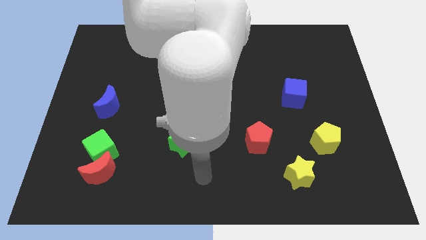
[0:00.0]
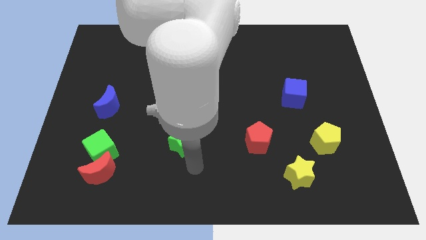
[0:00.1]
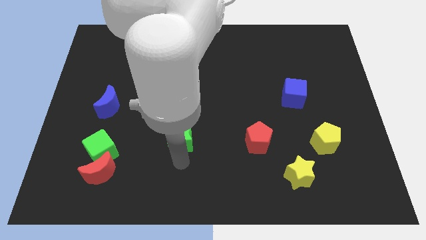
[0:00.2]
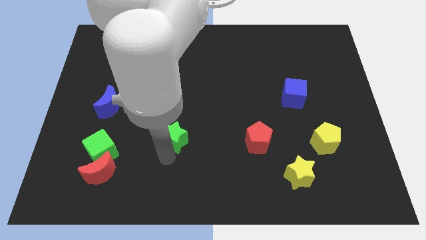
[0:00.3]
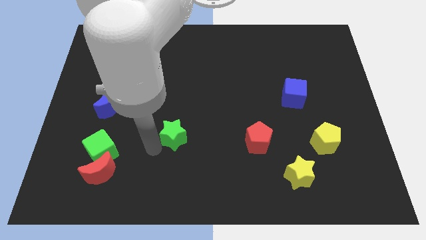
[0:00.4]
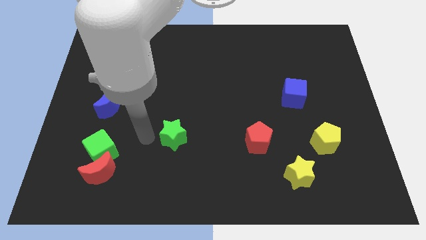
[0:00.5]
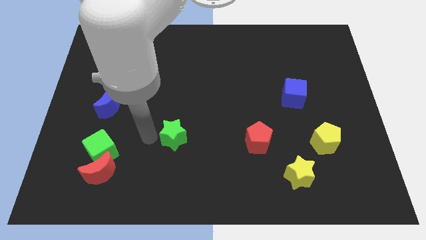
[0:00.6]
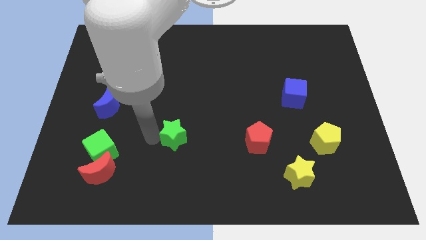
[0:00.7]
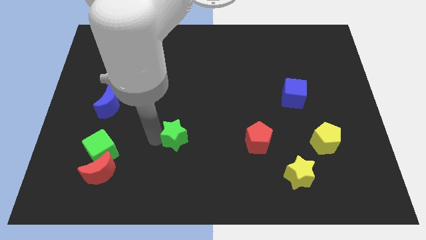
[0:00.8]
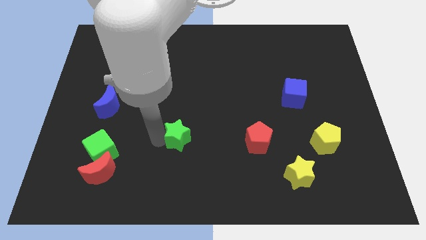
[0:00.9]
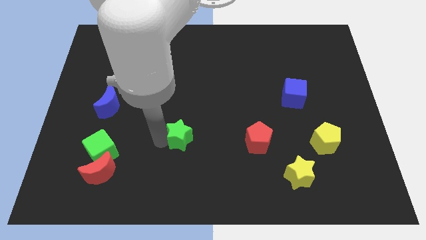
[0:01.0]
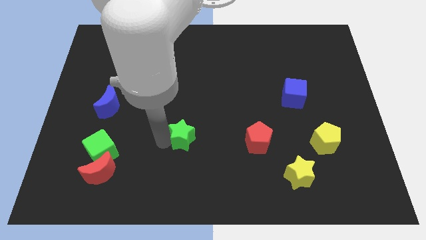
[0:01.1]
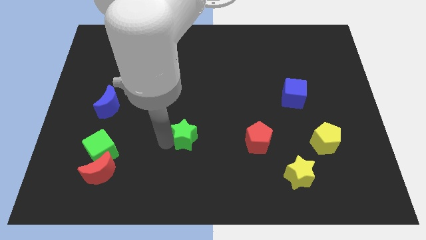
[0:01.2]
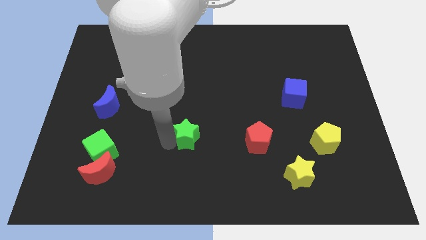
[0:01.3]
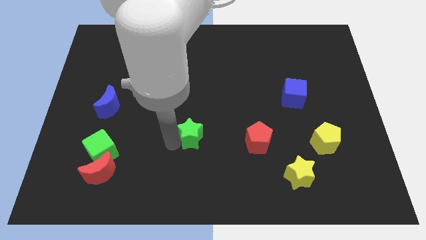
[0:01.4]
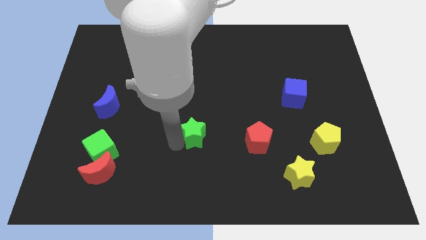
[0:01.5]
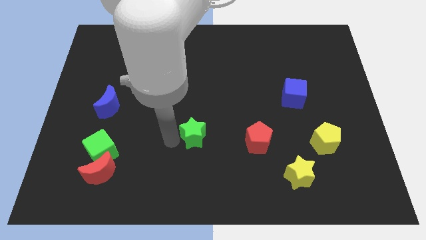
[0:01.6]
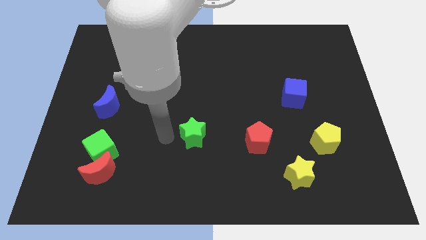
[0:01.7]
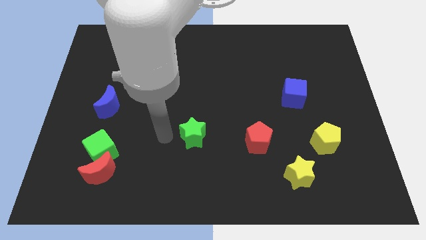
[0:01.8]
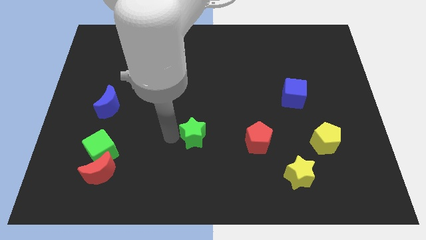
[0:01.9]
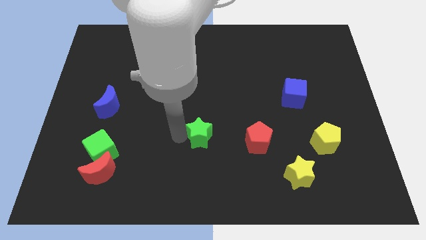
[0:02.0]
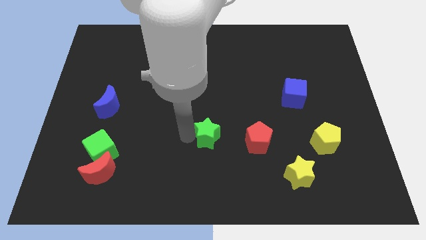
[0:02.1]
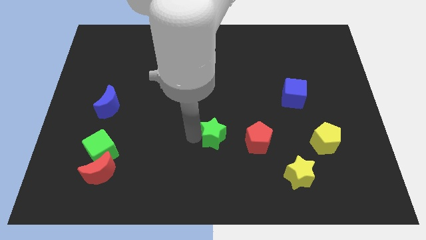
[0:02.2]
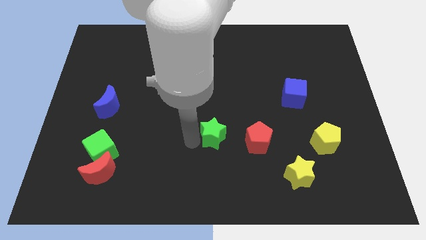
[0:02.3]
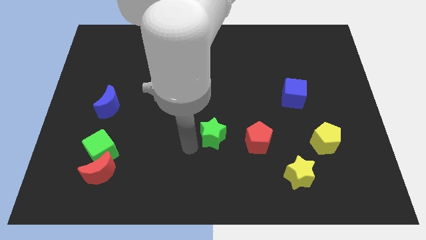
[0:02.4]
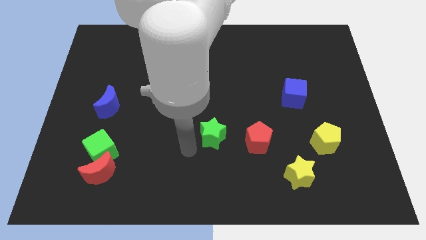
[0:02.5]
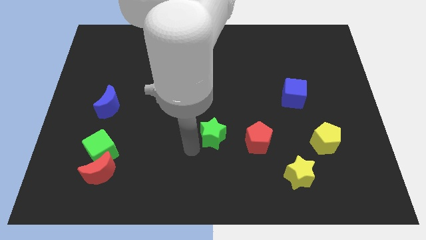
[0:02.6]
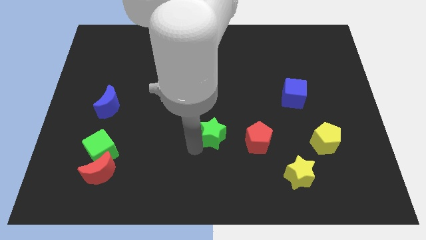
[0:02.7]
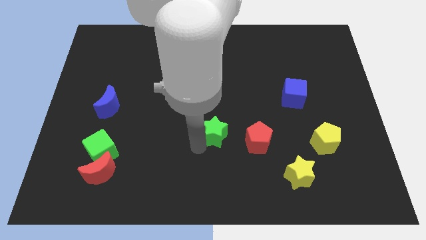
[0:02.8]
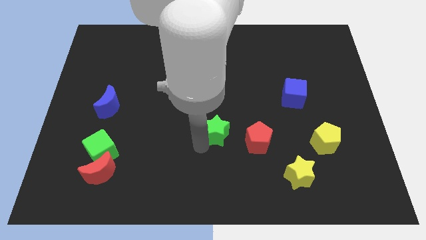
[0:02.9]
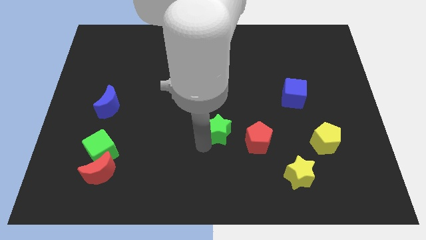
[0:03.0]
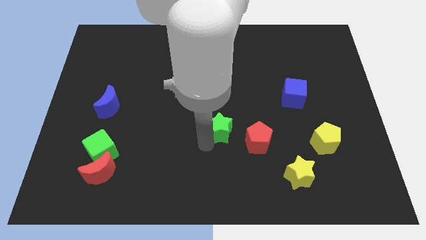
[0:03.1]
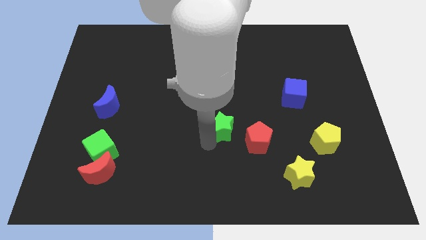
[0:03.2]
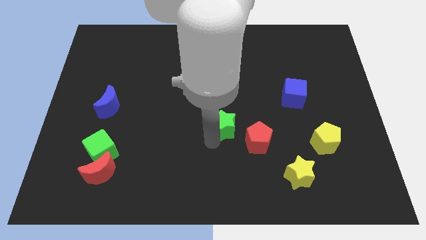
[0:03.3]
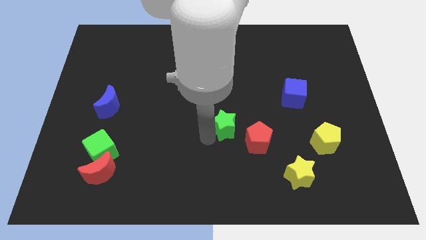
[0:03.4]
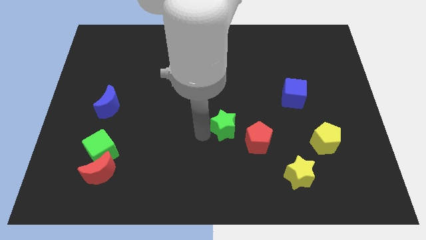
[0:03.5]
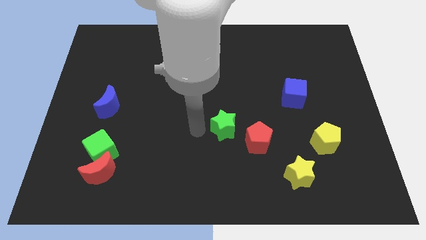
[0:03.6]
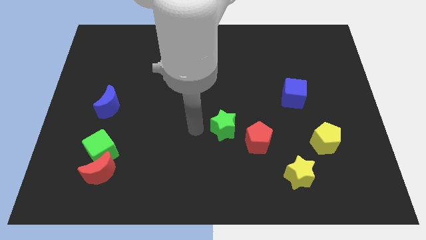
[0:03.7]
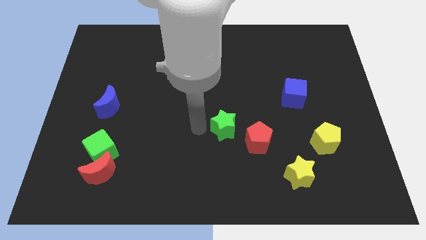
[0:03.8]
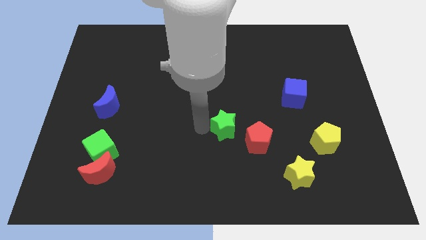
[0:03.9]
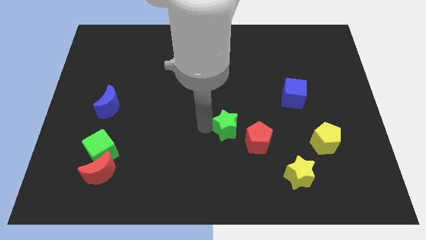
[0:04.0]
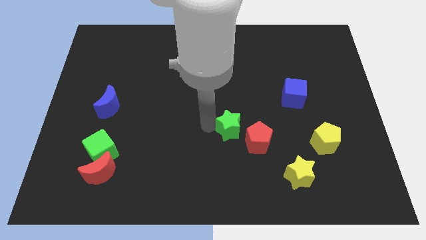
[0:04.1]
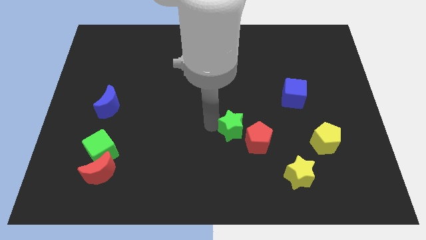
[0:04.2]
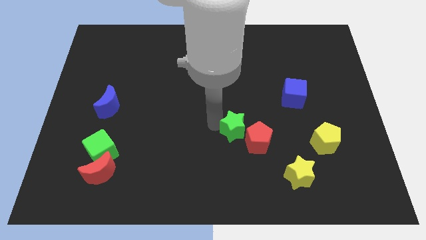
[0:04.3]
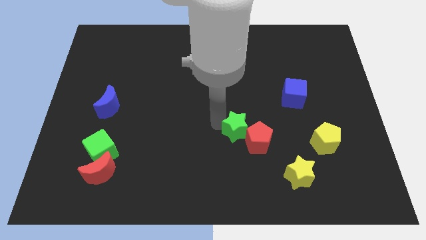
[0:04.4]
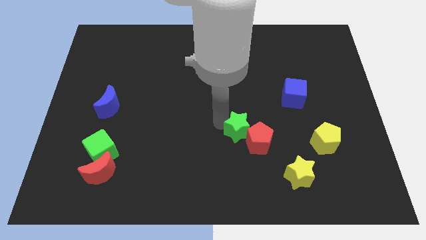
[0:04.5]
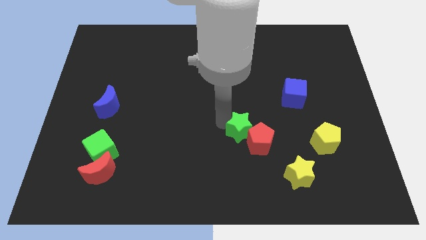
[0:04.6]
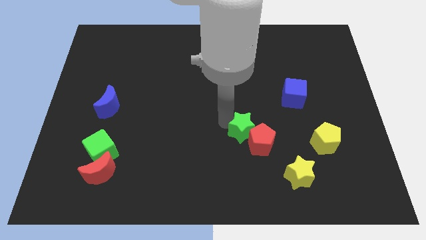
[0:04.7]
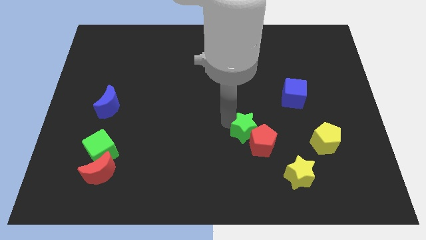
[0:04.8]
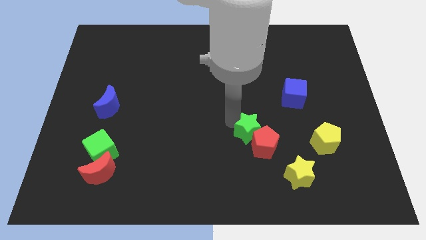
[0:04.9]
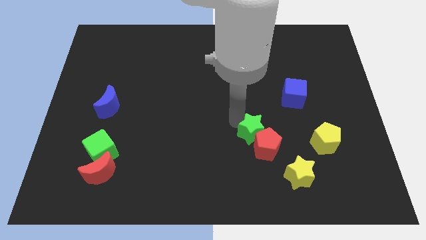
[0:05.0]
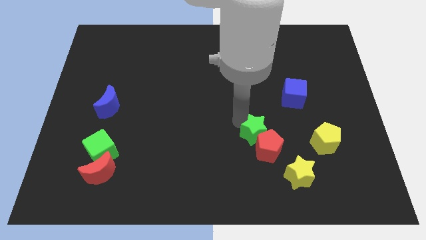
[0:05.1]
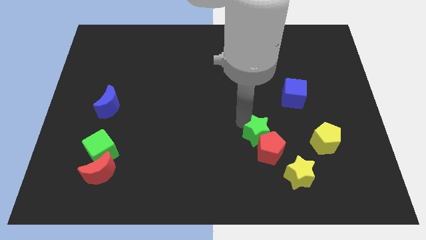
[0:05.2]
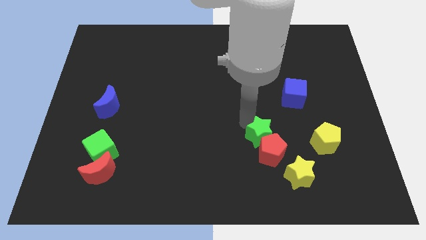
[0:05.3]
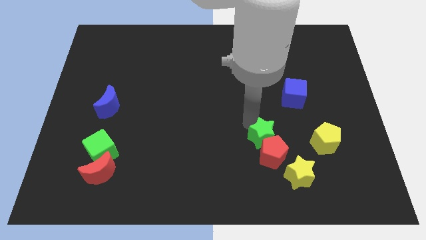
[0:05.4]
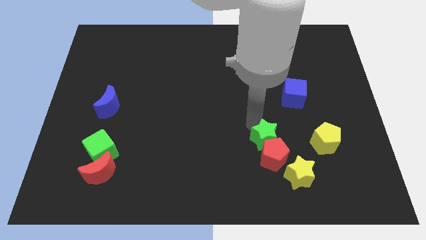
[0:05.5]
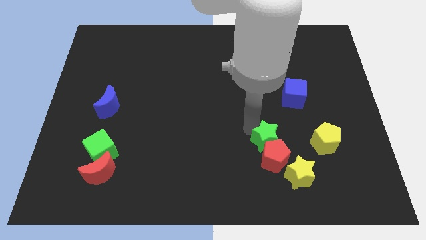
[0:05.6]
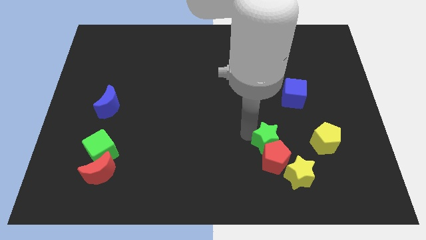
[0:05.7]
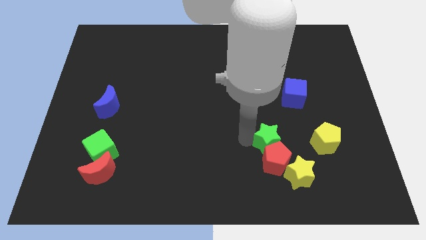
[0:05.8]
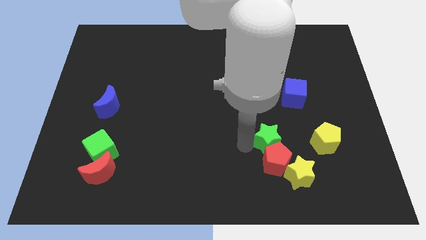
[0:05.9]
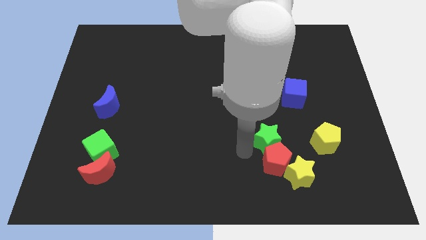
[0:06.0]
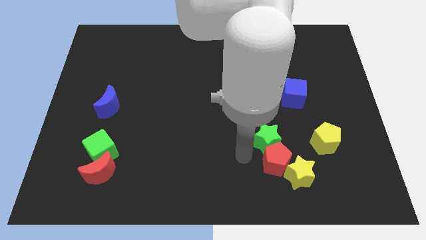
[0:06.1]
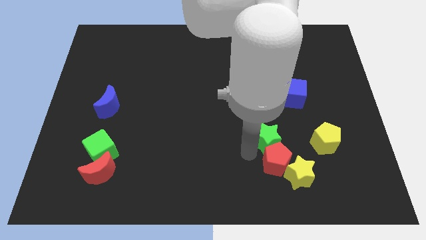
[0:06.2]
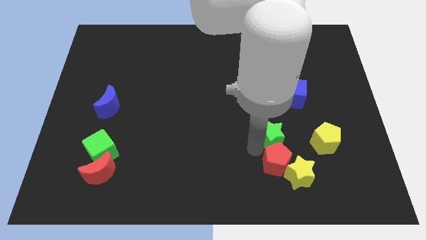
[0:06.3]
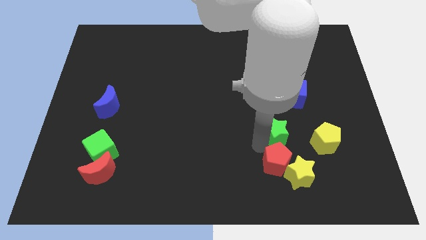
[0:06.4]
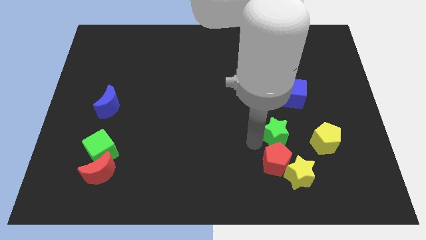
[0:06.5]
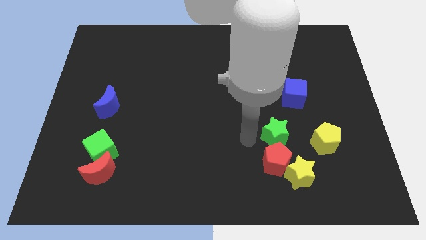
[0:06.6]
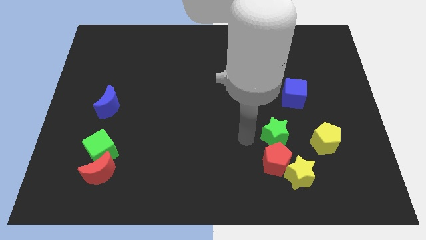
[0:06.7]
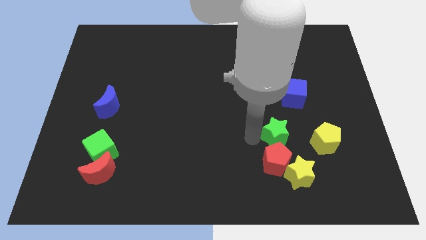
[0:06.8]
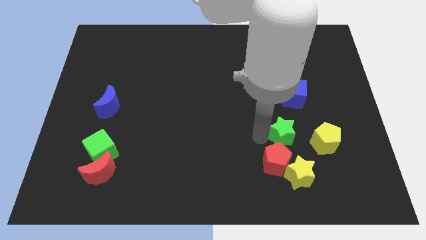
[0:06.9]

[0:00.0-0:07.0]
move the green star to the bottom of the blue cube

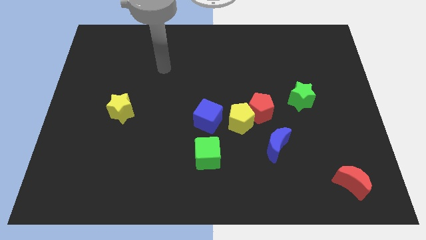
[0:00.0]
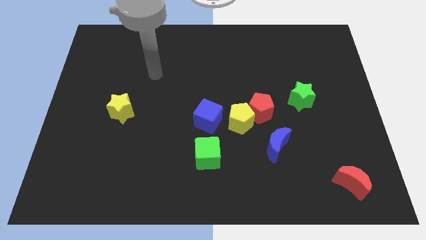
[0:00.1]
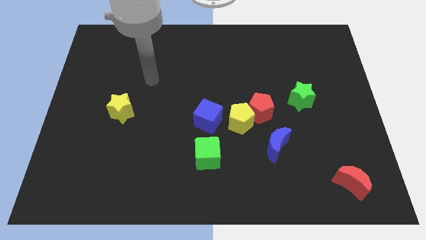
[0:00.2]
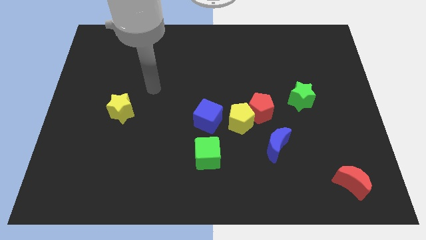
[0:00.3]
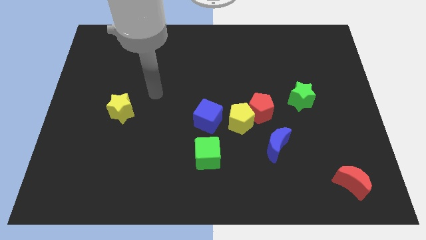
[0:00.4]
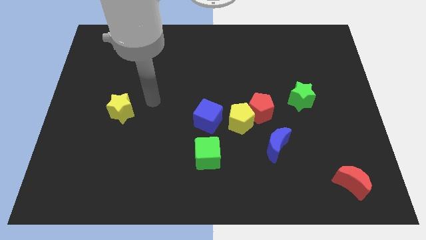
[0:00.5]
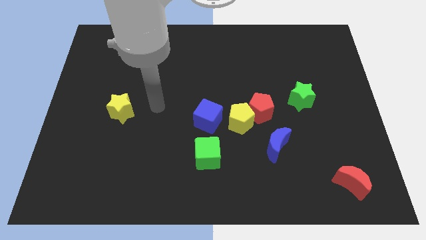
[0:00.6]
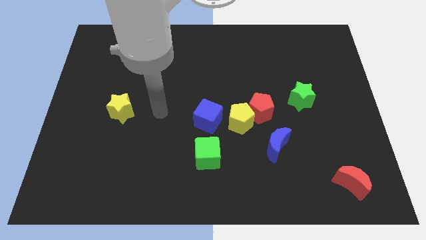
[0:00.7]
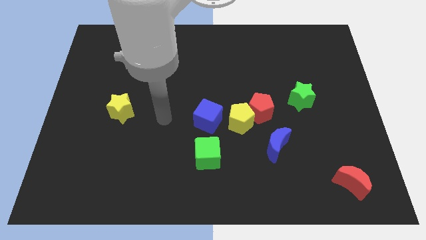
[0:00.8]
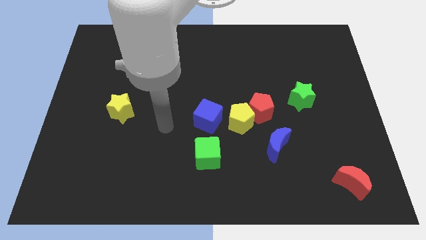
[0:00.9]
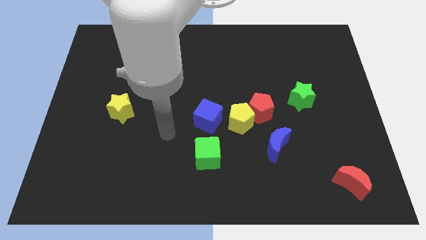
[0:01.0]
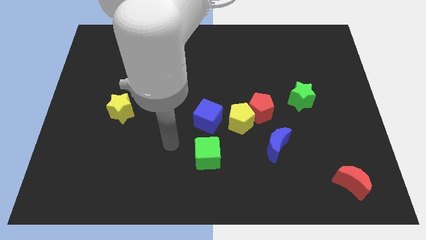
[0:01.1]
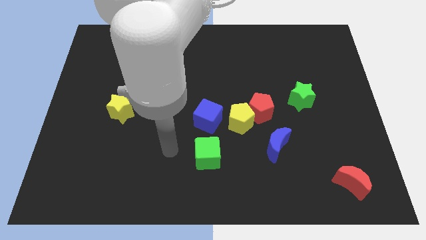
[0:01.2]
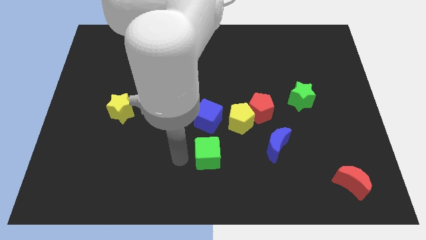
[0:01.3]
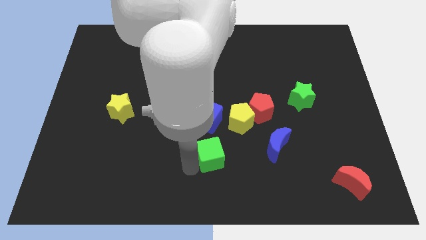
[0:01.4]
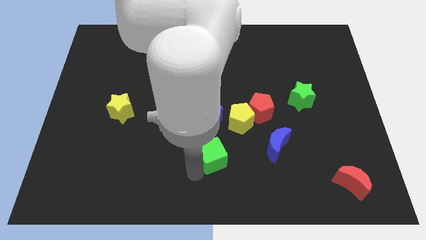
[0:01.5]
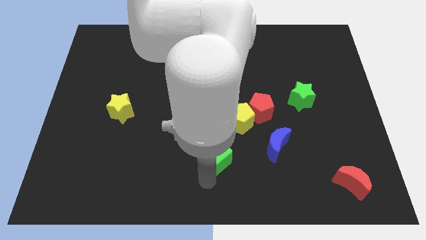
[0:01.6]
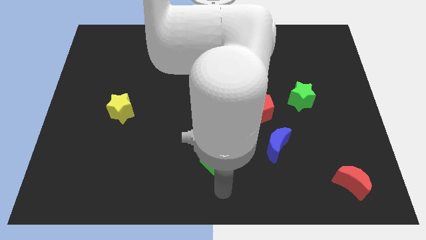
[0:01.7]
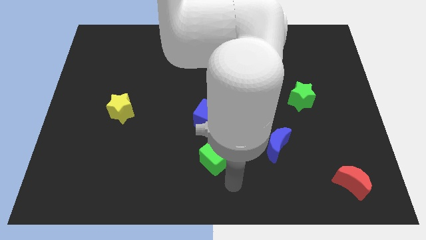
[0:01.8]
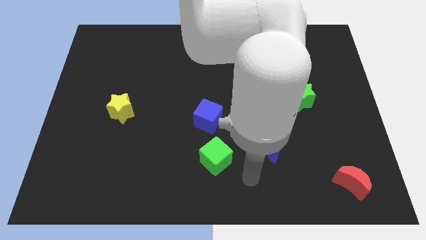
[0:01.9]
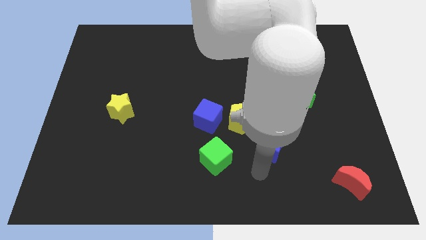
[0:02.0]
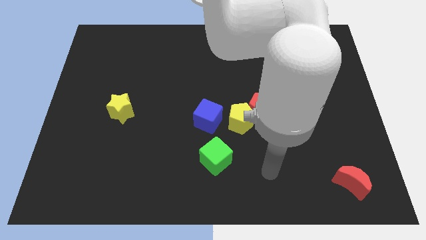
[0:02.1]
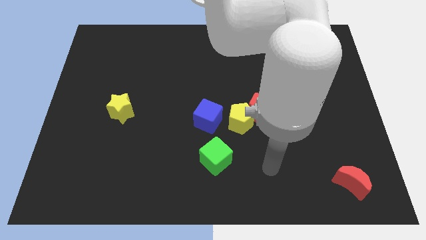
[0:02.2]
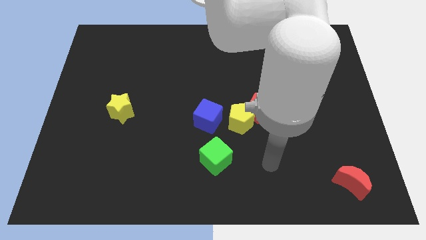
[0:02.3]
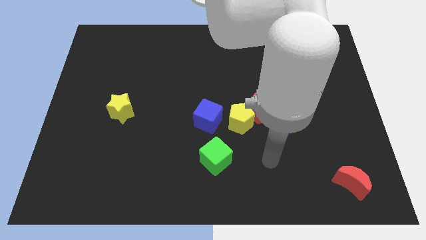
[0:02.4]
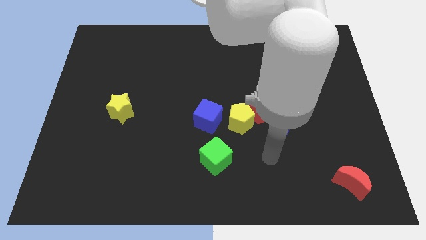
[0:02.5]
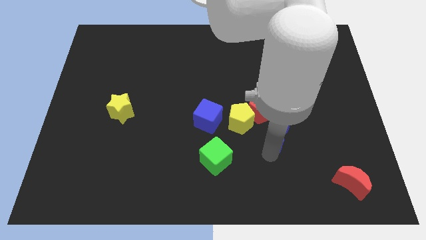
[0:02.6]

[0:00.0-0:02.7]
slide the blue moon to the bottom left side of the green star
